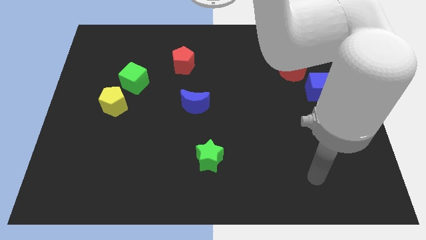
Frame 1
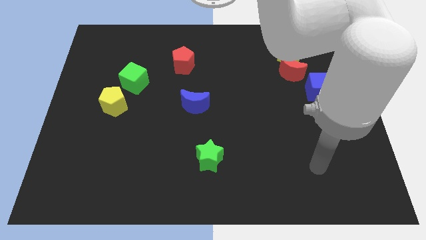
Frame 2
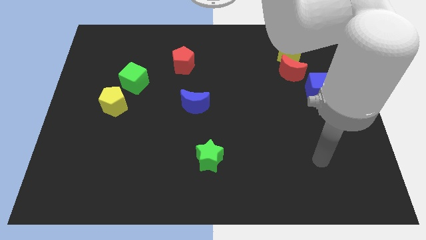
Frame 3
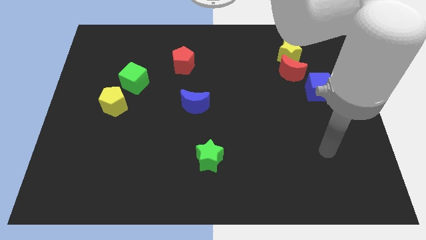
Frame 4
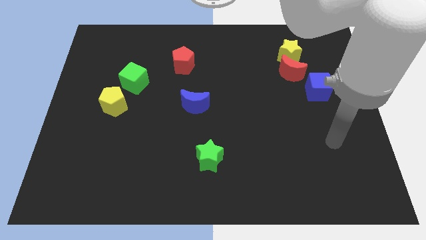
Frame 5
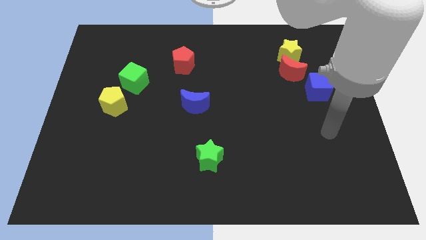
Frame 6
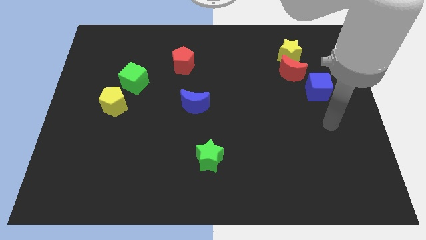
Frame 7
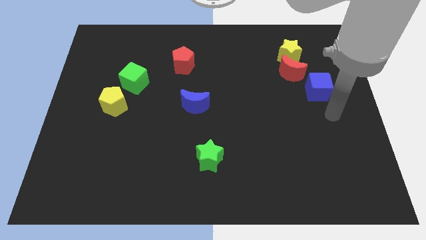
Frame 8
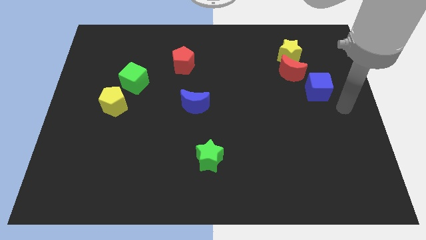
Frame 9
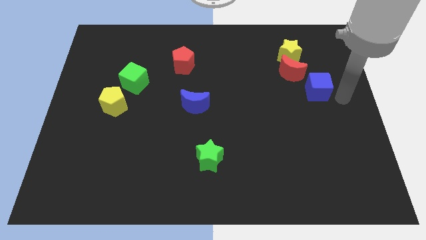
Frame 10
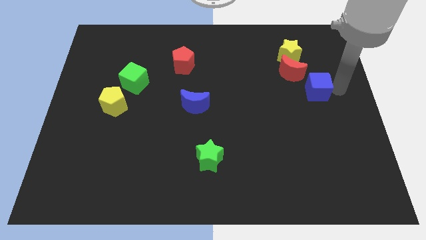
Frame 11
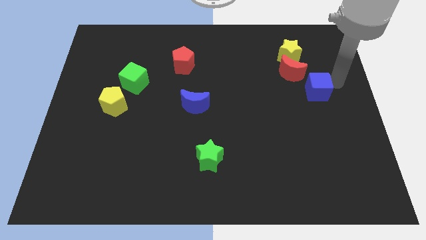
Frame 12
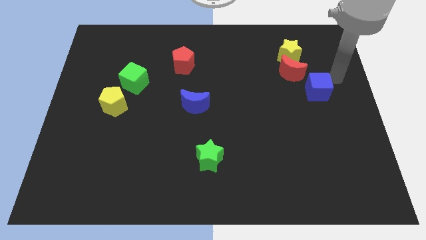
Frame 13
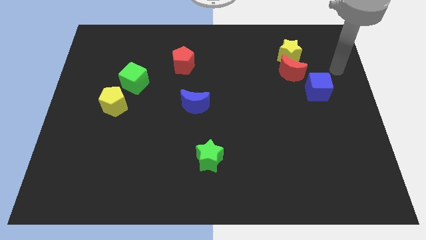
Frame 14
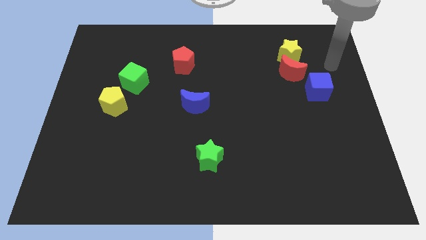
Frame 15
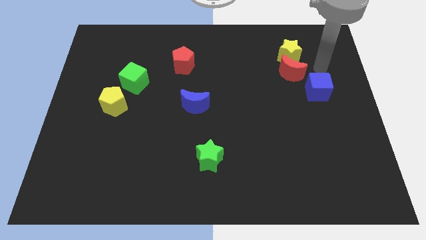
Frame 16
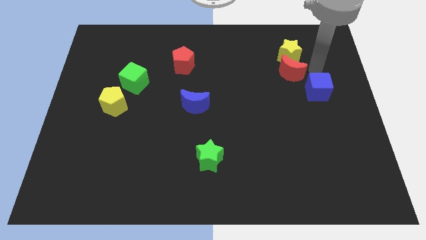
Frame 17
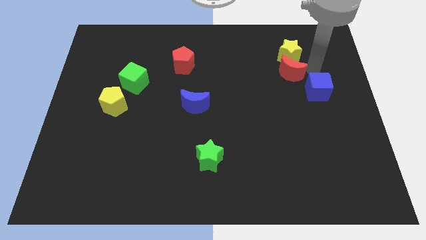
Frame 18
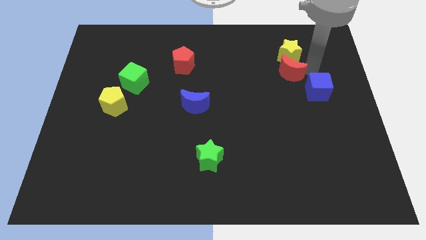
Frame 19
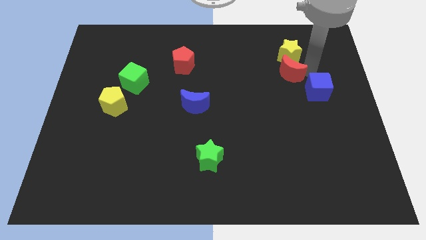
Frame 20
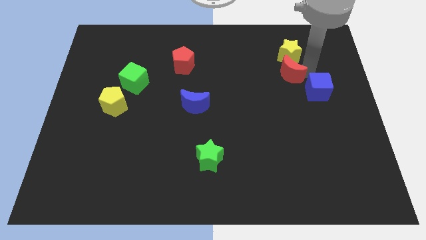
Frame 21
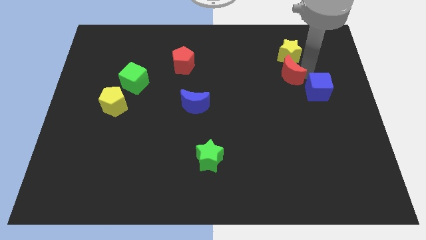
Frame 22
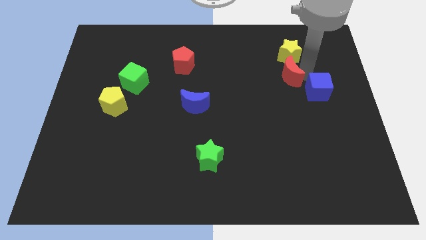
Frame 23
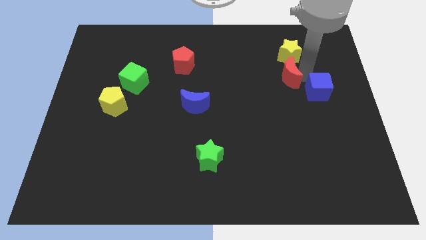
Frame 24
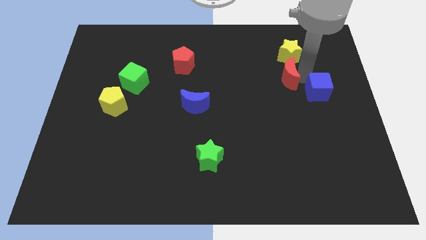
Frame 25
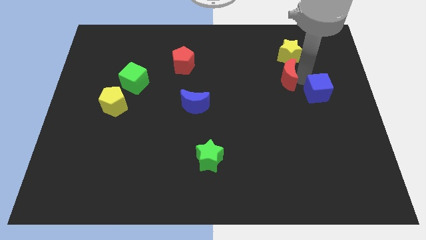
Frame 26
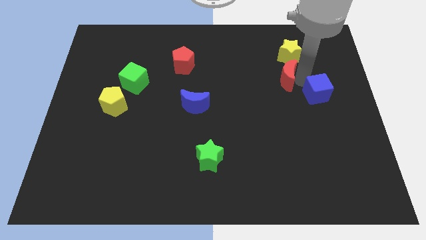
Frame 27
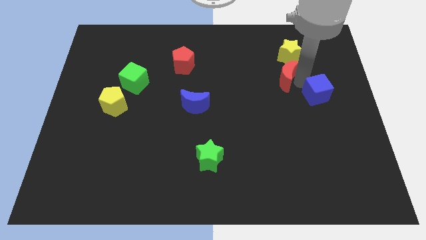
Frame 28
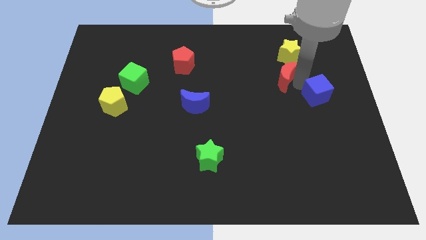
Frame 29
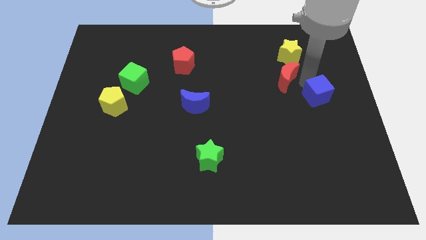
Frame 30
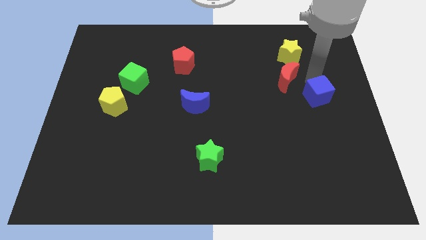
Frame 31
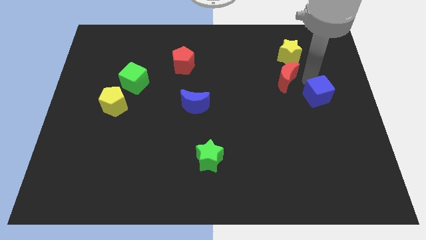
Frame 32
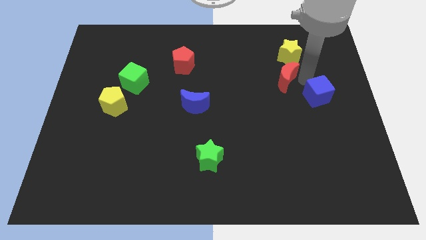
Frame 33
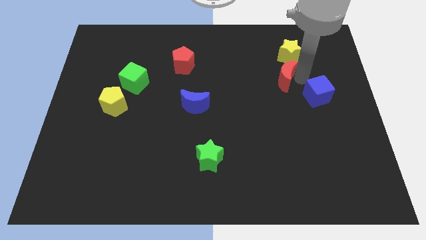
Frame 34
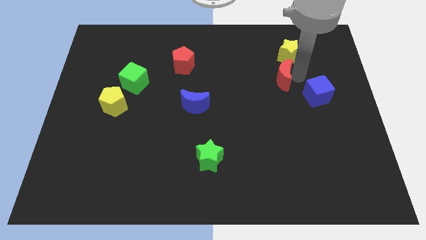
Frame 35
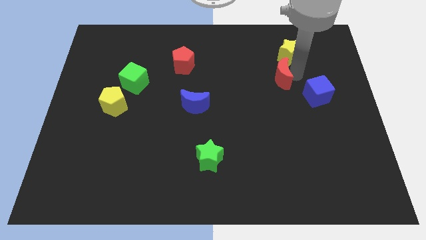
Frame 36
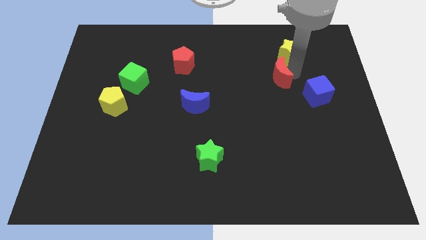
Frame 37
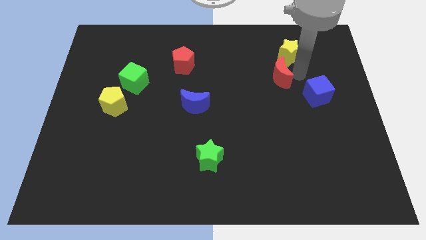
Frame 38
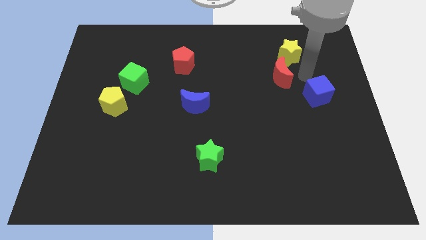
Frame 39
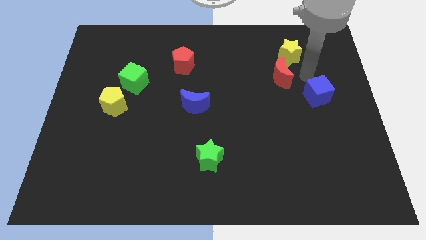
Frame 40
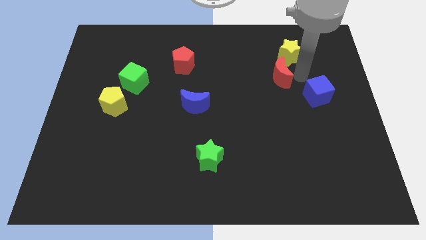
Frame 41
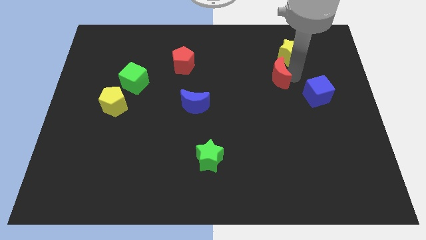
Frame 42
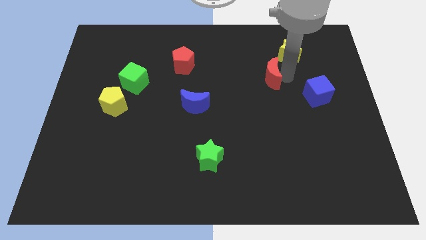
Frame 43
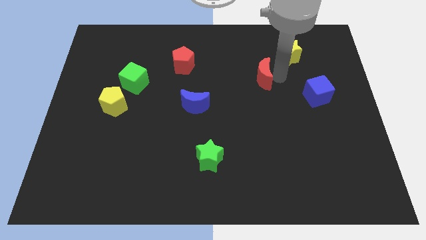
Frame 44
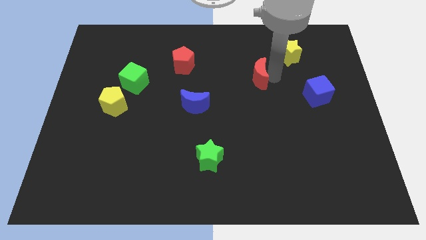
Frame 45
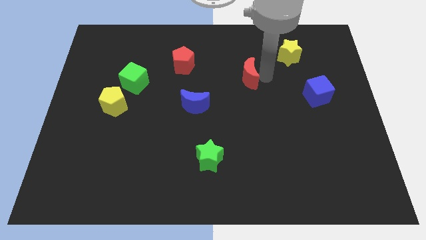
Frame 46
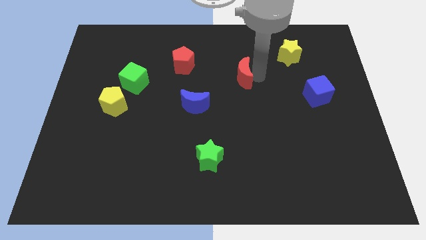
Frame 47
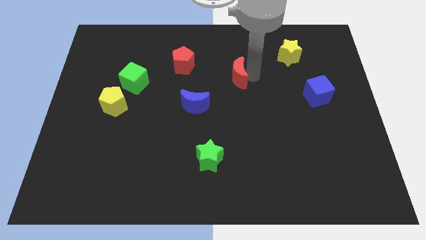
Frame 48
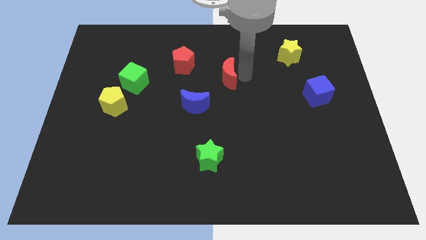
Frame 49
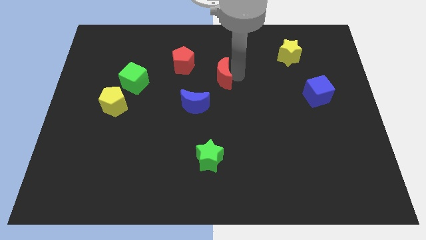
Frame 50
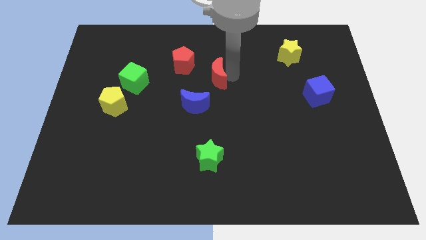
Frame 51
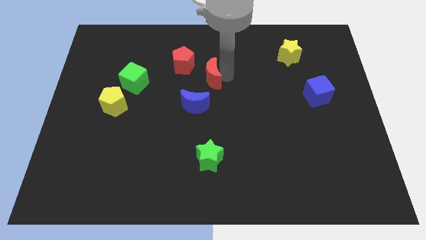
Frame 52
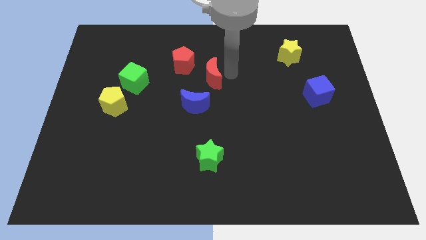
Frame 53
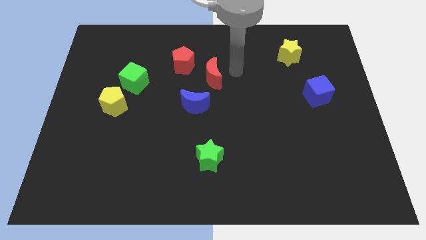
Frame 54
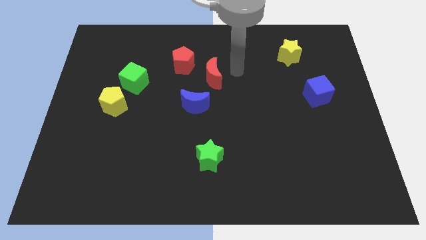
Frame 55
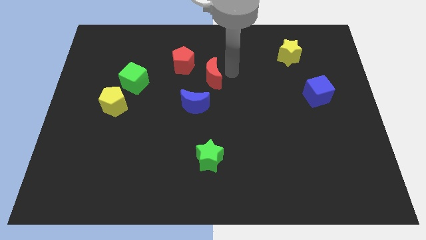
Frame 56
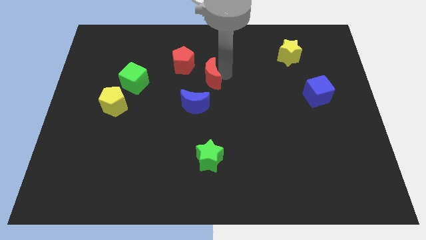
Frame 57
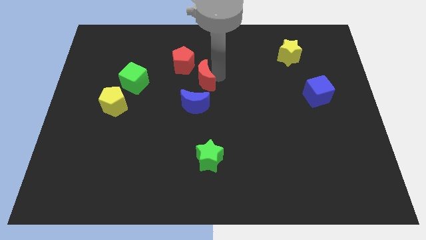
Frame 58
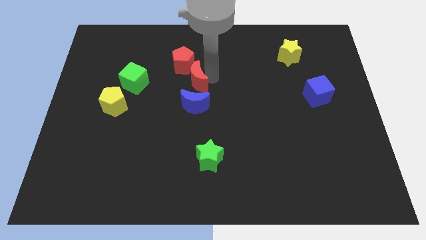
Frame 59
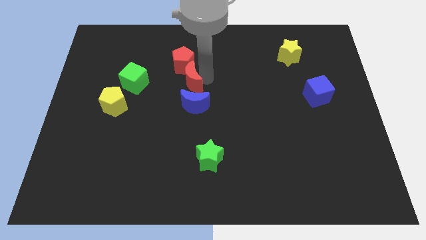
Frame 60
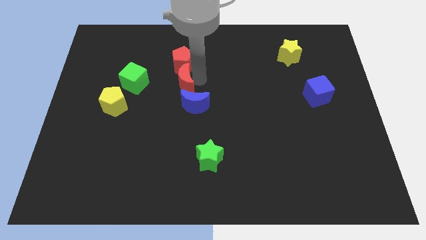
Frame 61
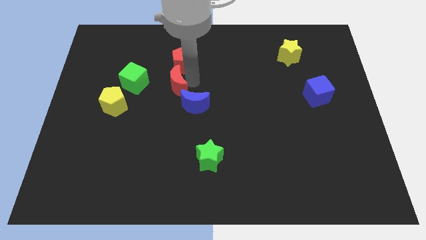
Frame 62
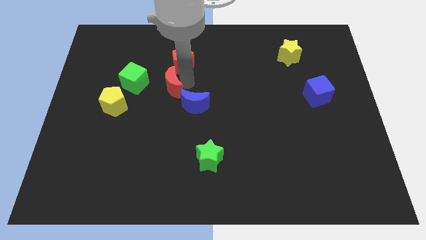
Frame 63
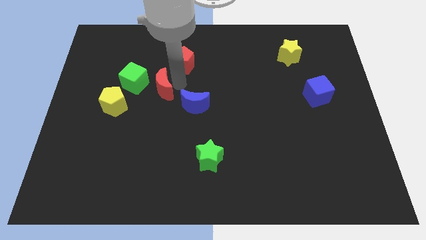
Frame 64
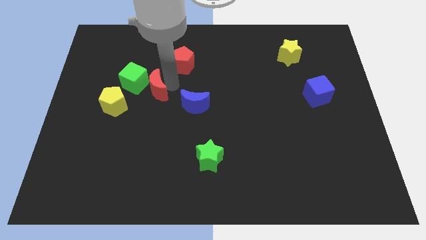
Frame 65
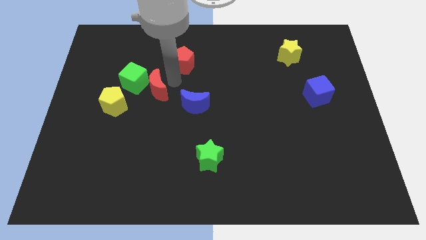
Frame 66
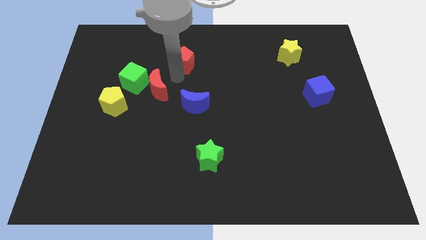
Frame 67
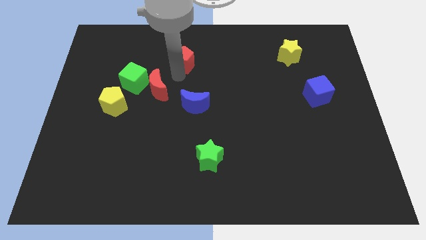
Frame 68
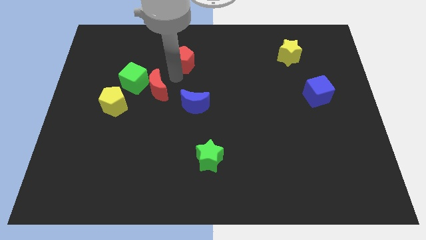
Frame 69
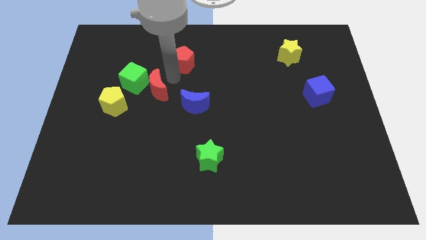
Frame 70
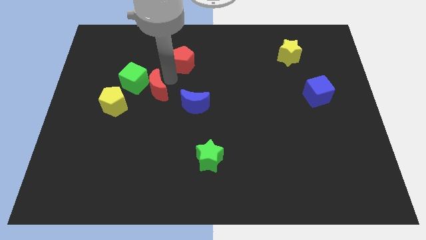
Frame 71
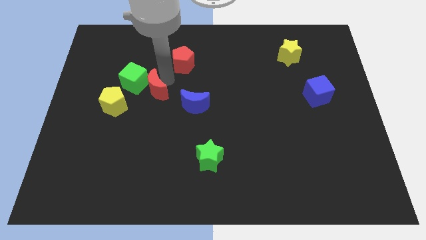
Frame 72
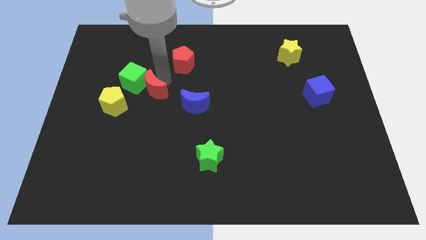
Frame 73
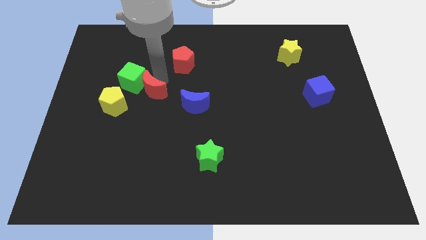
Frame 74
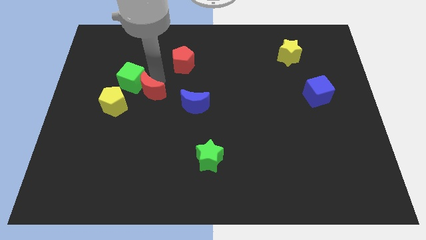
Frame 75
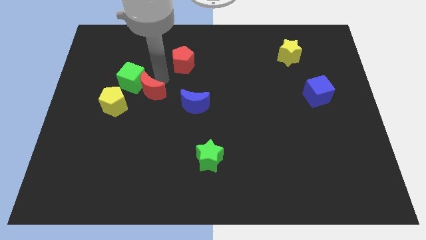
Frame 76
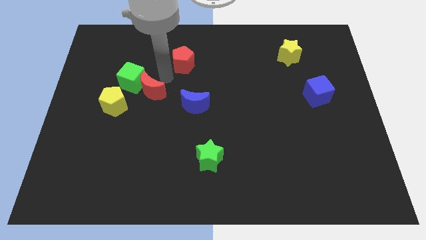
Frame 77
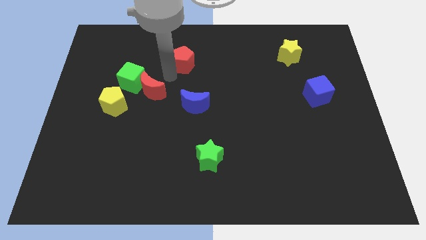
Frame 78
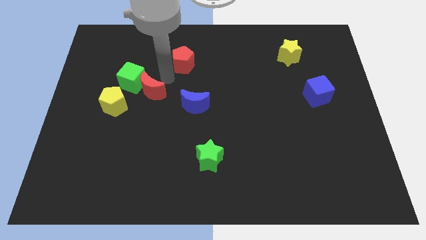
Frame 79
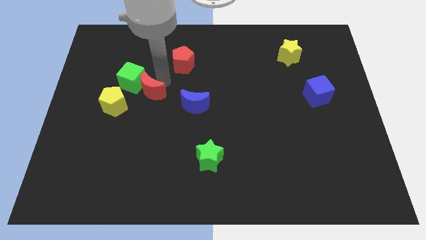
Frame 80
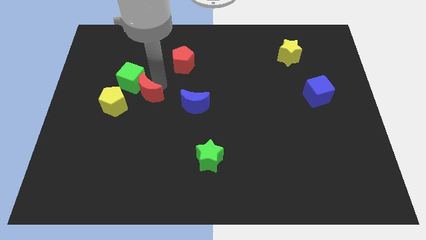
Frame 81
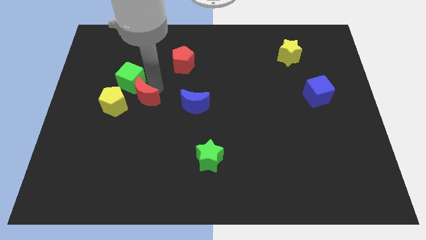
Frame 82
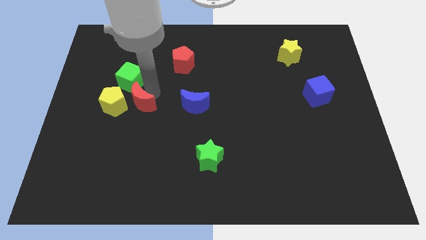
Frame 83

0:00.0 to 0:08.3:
push the red moon close to the yellow pentagon
